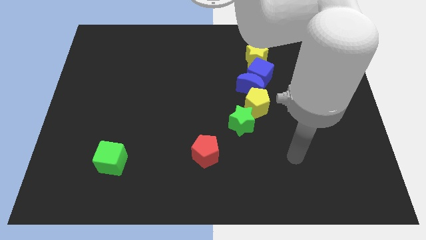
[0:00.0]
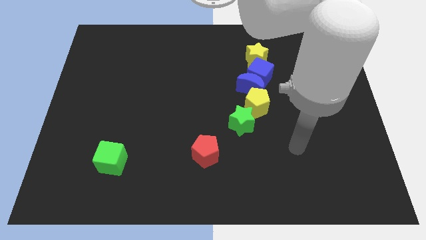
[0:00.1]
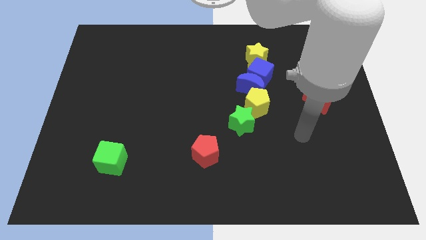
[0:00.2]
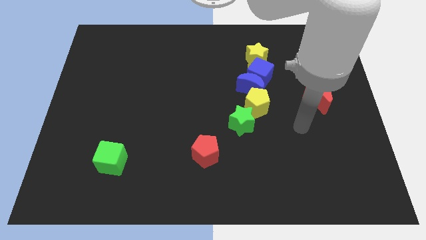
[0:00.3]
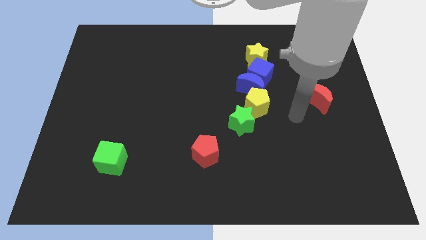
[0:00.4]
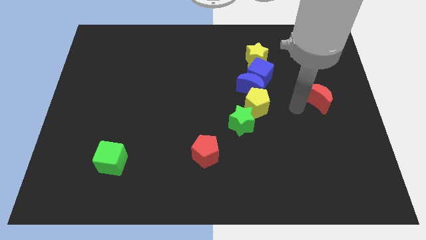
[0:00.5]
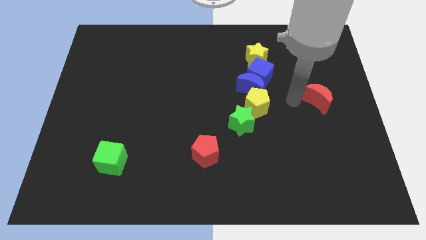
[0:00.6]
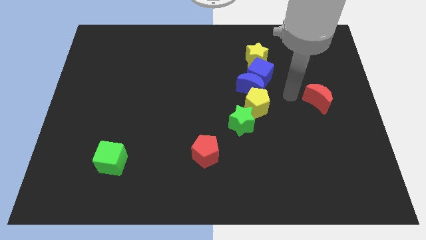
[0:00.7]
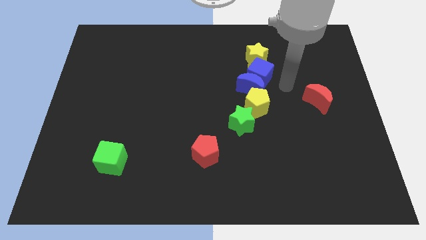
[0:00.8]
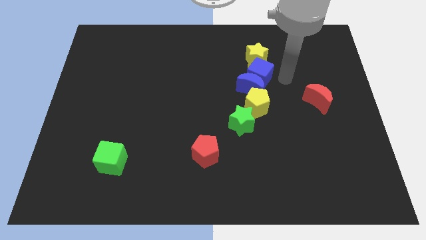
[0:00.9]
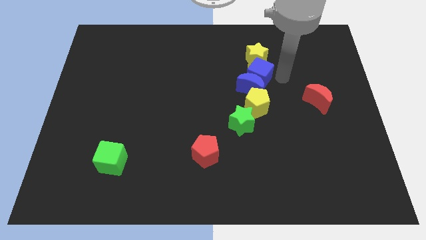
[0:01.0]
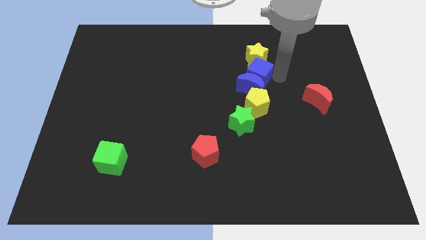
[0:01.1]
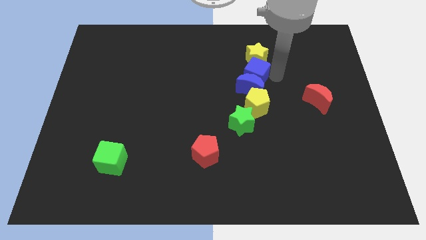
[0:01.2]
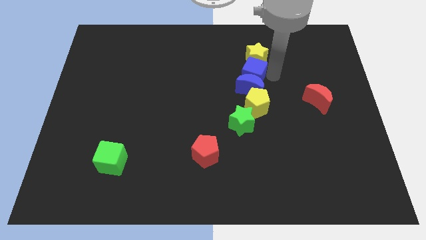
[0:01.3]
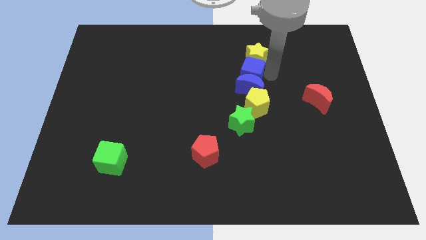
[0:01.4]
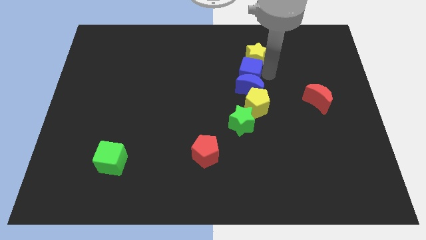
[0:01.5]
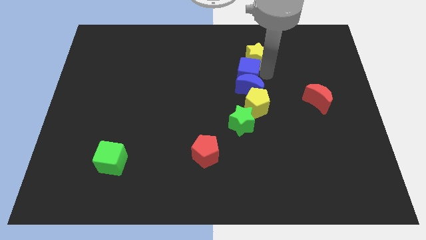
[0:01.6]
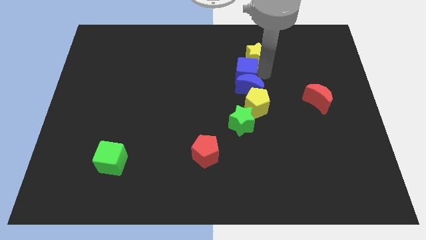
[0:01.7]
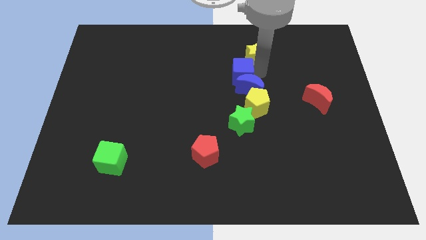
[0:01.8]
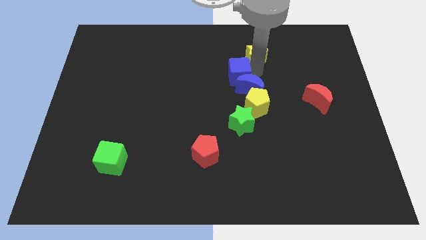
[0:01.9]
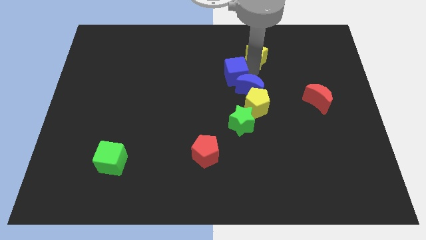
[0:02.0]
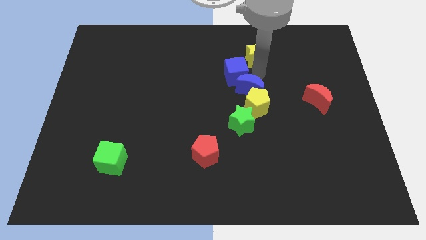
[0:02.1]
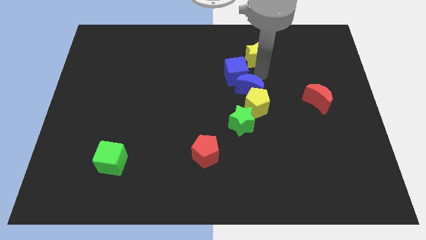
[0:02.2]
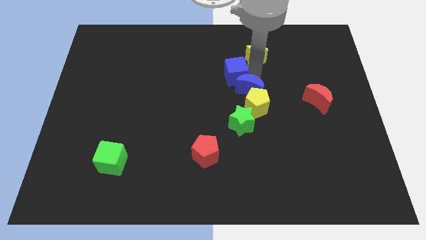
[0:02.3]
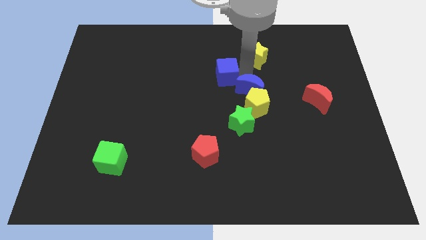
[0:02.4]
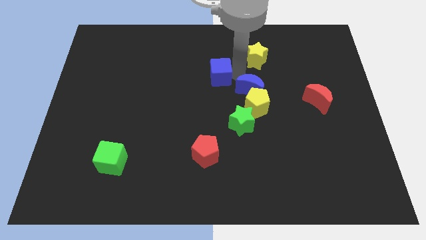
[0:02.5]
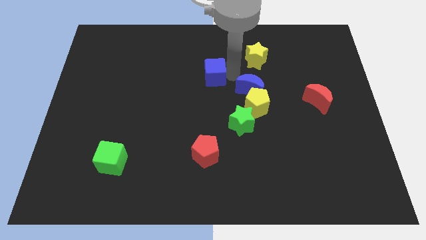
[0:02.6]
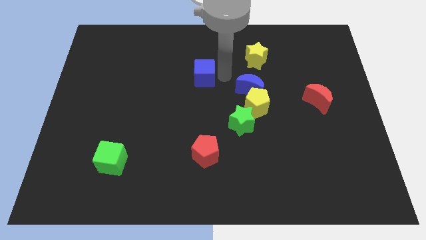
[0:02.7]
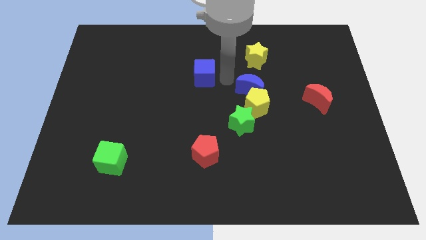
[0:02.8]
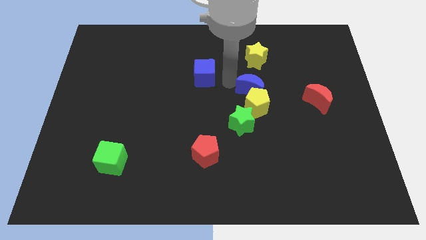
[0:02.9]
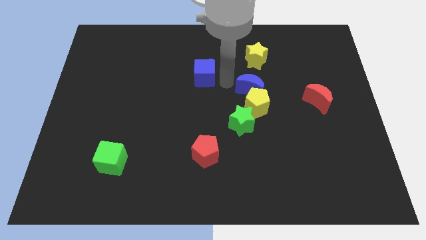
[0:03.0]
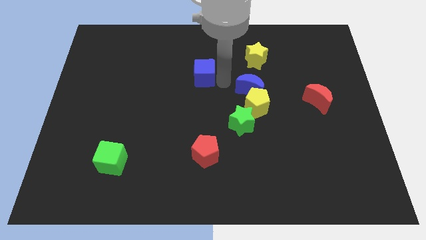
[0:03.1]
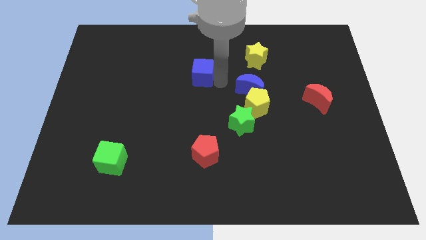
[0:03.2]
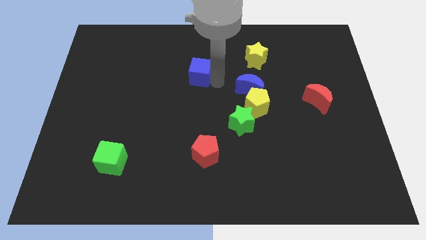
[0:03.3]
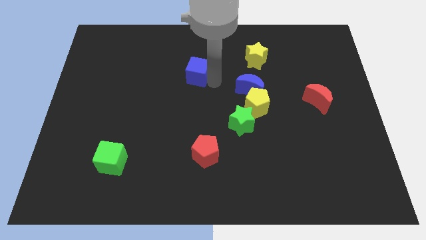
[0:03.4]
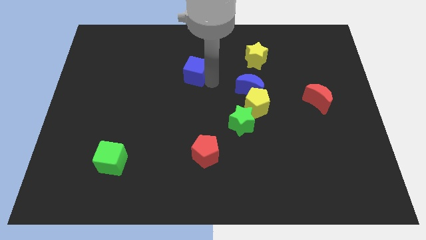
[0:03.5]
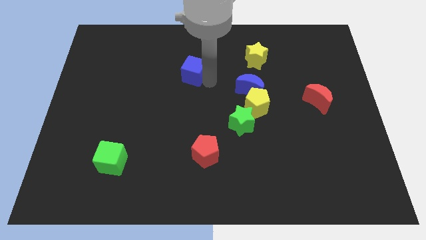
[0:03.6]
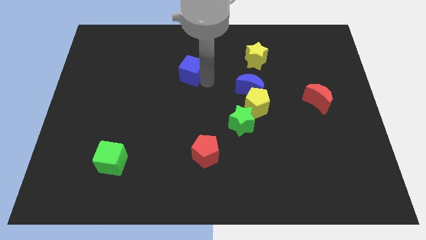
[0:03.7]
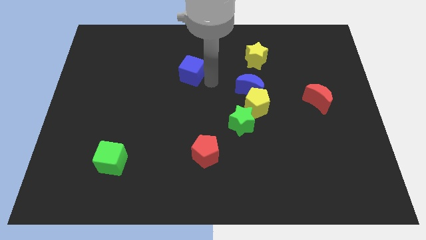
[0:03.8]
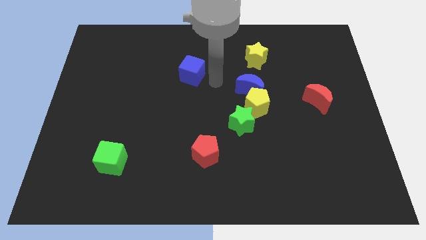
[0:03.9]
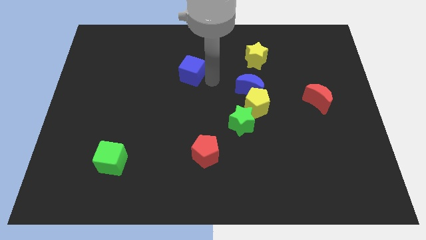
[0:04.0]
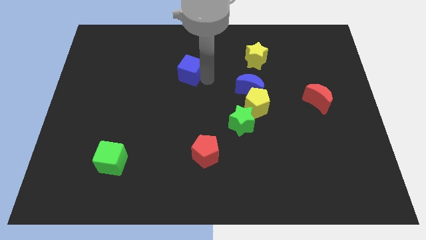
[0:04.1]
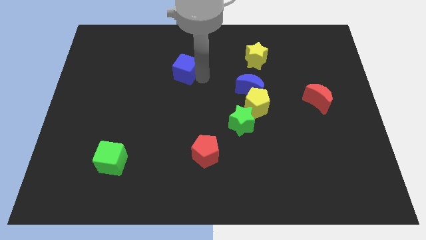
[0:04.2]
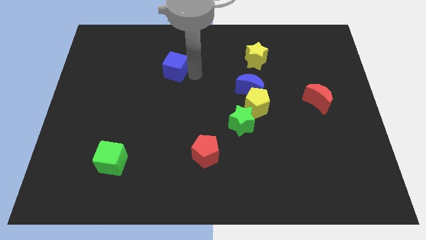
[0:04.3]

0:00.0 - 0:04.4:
push the blue cube left

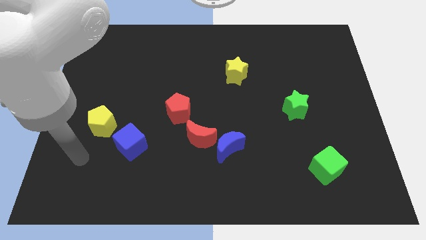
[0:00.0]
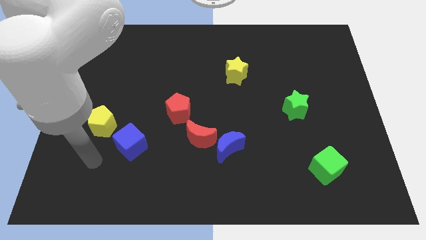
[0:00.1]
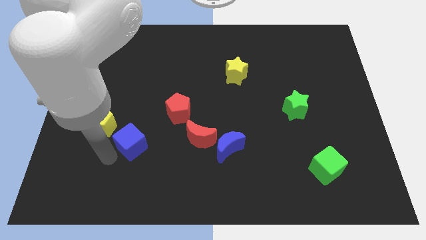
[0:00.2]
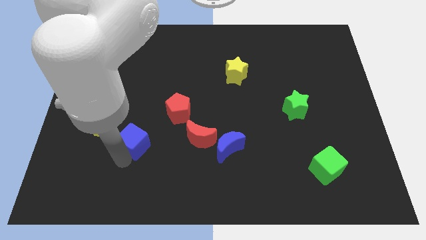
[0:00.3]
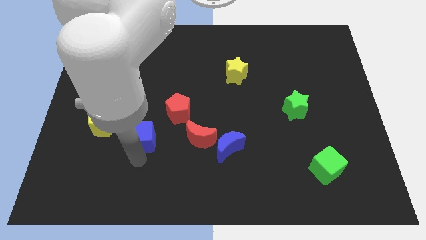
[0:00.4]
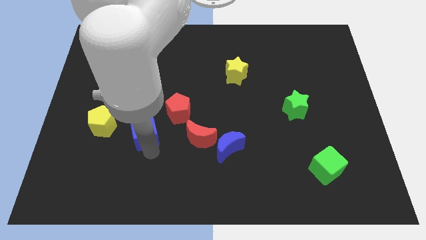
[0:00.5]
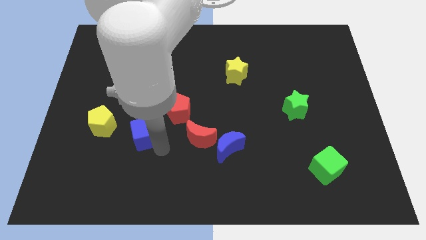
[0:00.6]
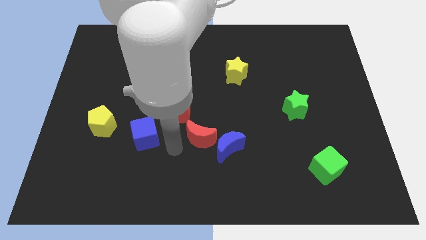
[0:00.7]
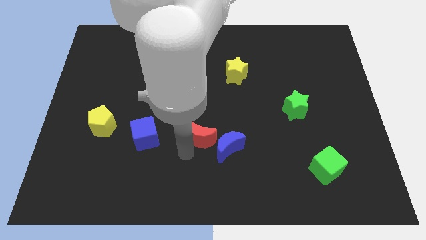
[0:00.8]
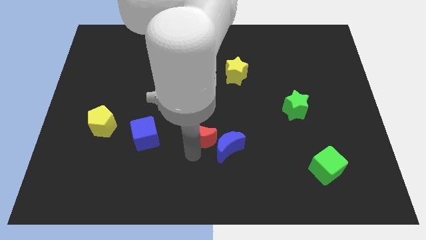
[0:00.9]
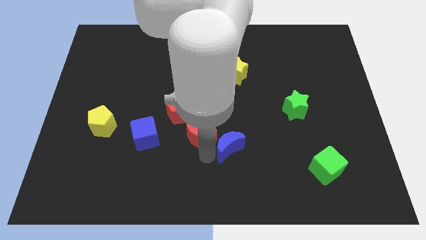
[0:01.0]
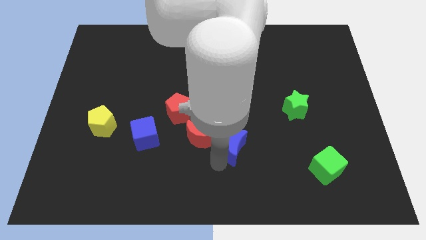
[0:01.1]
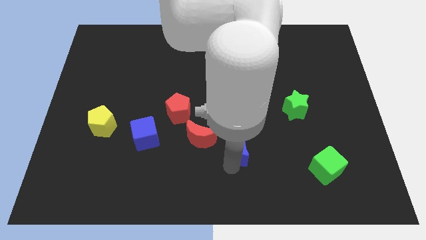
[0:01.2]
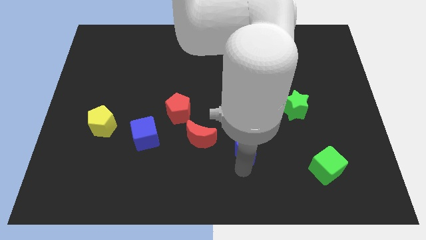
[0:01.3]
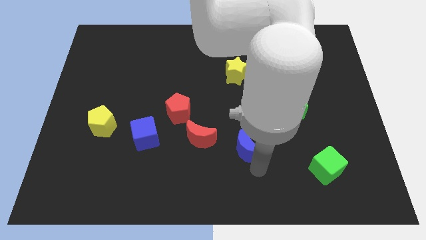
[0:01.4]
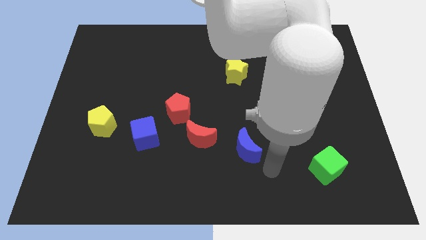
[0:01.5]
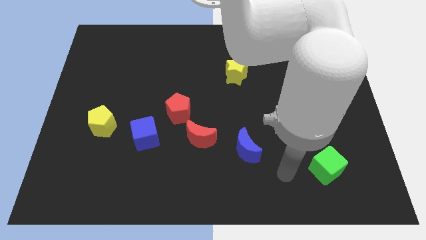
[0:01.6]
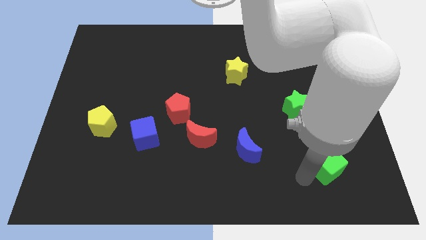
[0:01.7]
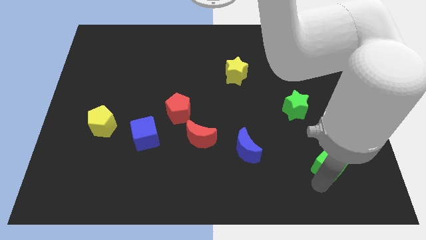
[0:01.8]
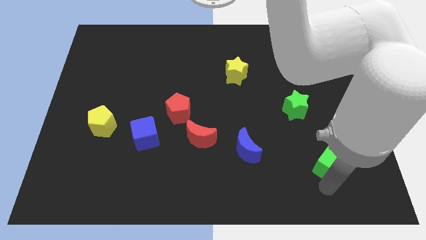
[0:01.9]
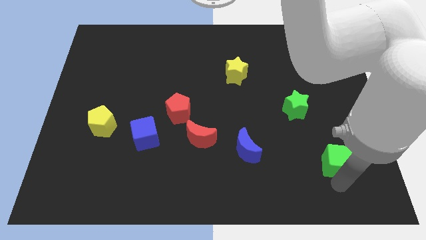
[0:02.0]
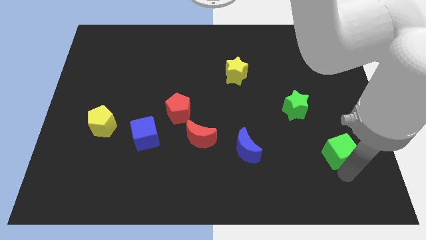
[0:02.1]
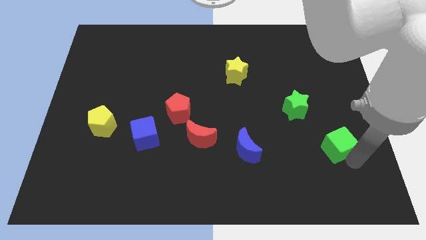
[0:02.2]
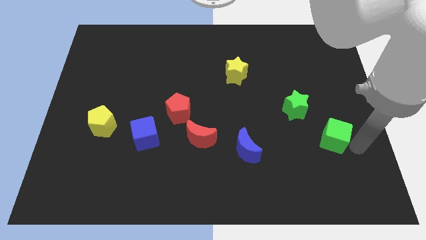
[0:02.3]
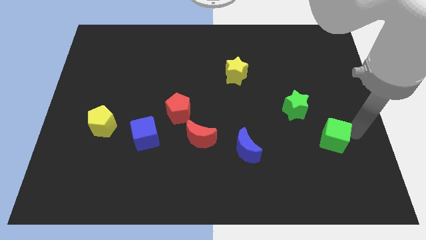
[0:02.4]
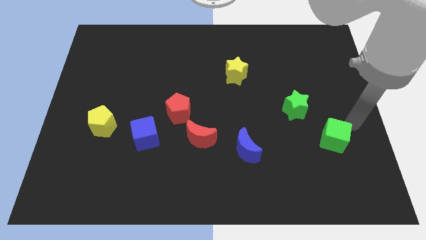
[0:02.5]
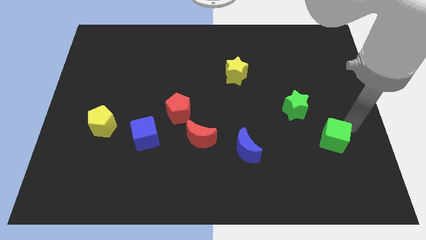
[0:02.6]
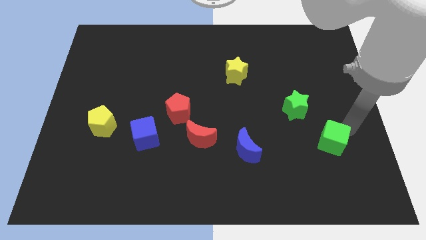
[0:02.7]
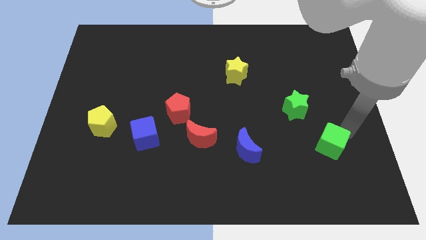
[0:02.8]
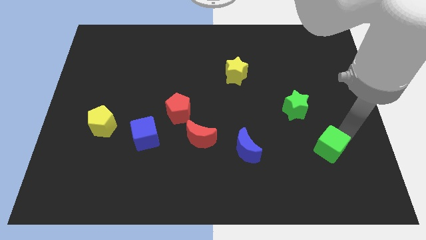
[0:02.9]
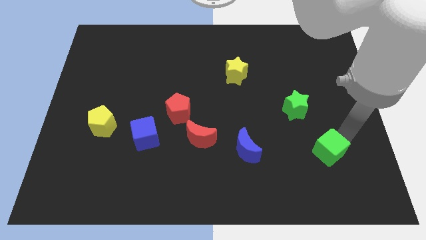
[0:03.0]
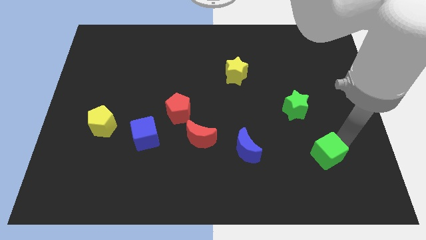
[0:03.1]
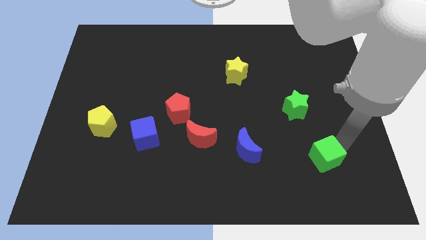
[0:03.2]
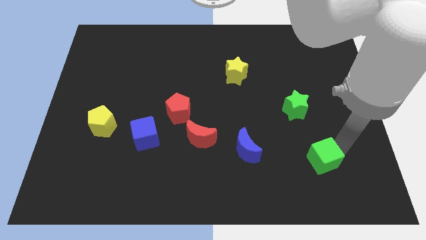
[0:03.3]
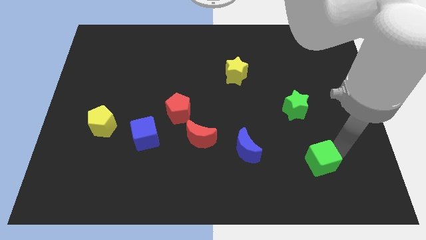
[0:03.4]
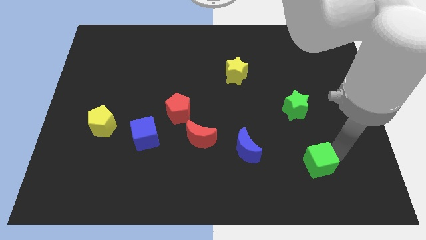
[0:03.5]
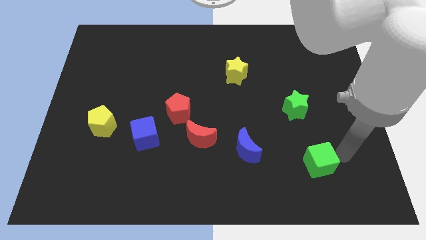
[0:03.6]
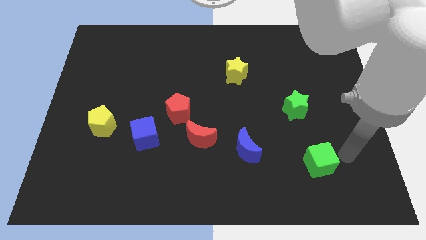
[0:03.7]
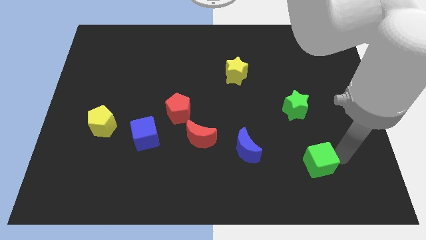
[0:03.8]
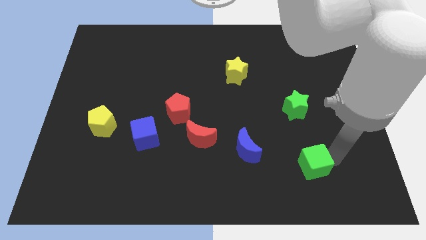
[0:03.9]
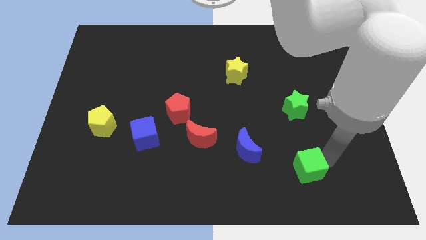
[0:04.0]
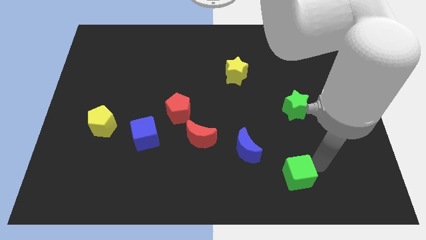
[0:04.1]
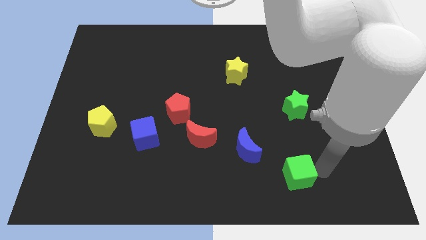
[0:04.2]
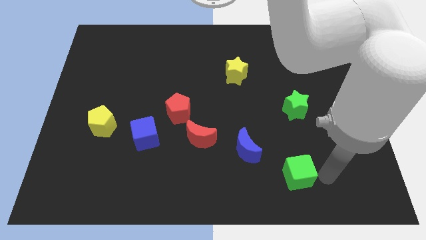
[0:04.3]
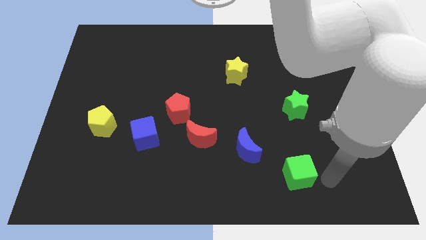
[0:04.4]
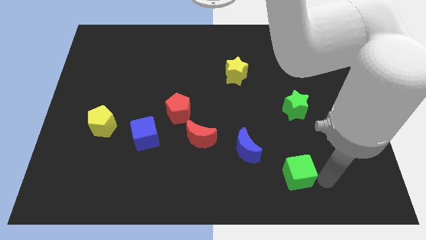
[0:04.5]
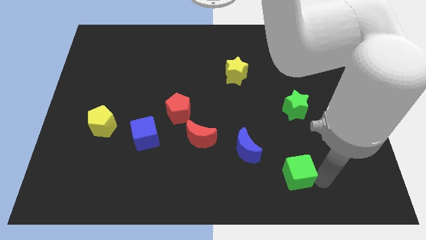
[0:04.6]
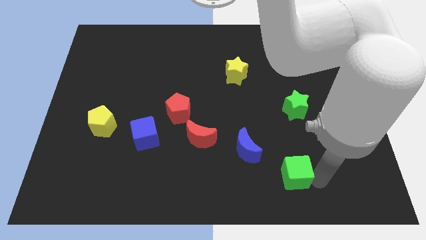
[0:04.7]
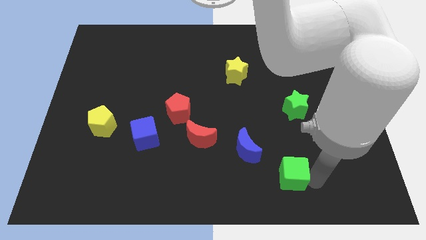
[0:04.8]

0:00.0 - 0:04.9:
move the green cube left a bit
